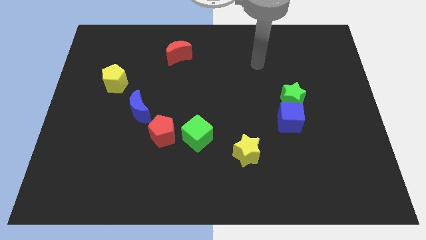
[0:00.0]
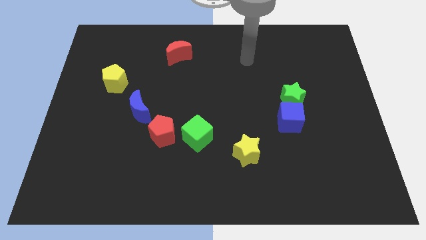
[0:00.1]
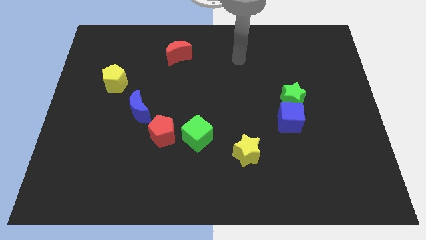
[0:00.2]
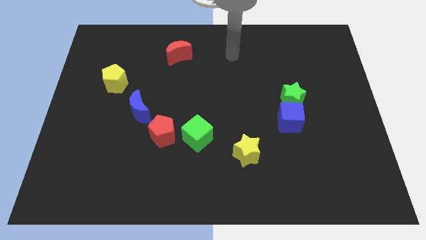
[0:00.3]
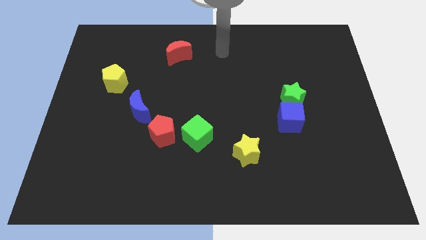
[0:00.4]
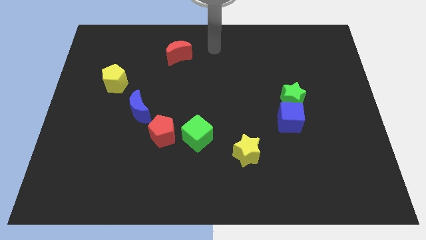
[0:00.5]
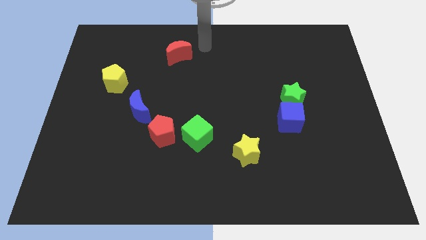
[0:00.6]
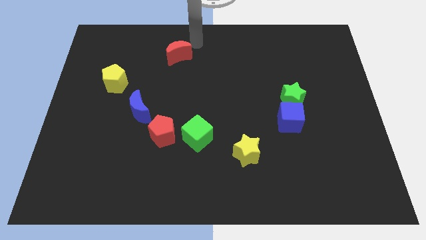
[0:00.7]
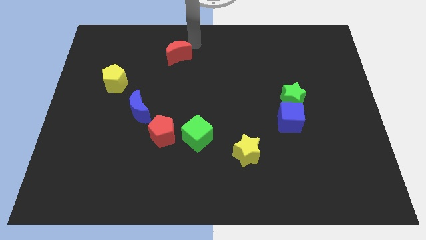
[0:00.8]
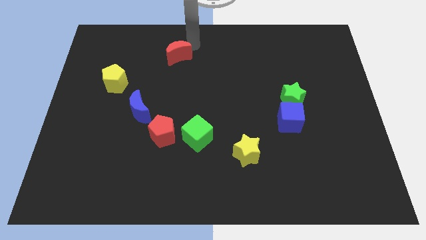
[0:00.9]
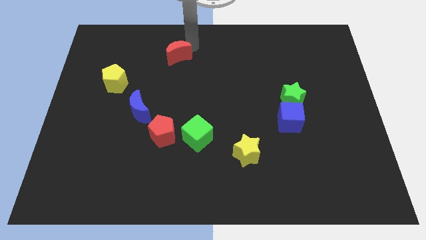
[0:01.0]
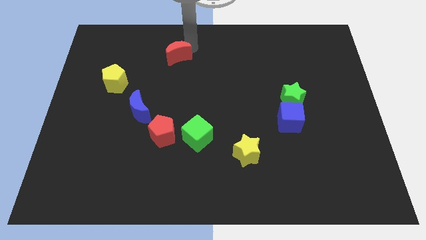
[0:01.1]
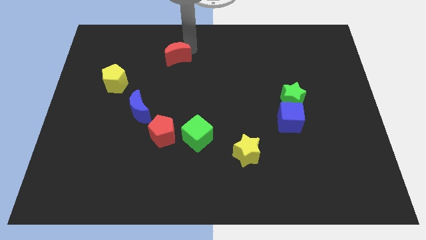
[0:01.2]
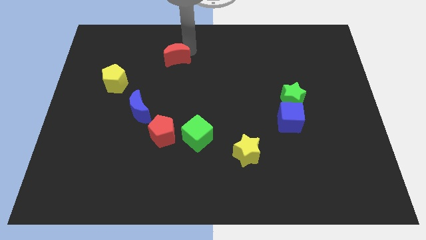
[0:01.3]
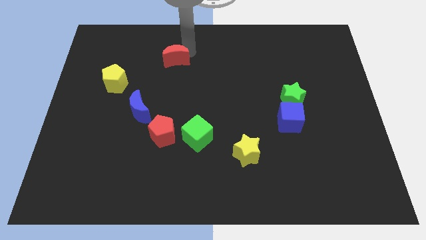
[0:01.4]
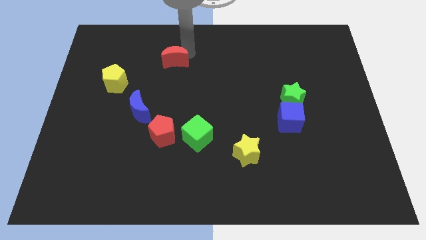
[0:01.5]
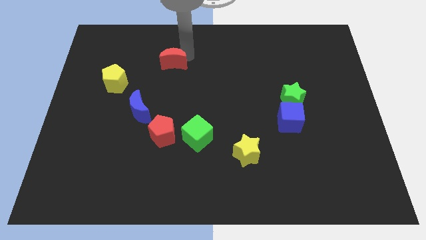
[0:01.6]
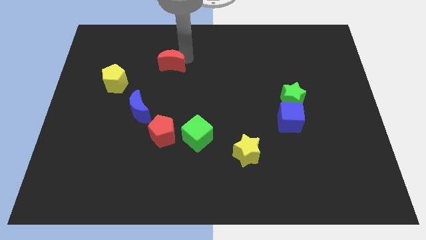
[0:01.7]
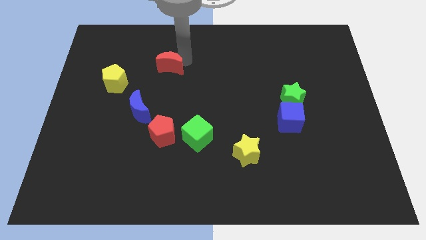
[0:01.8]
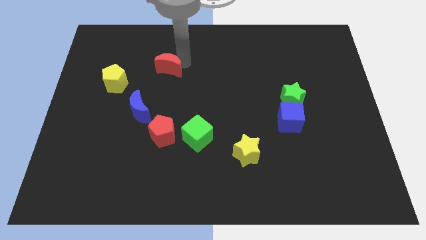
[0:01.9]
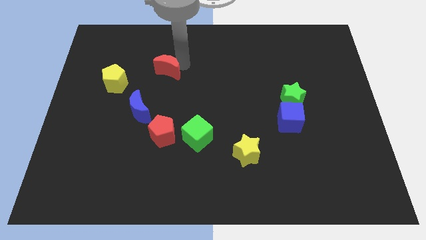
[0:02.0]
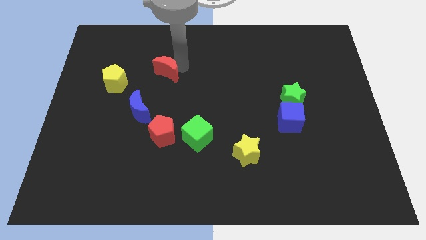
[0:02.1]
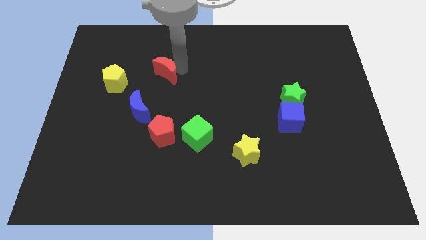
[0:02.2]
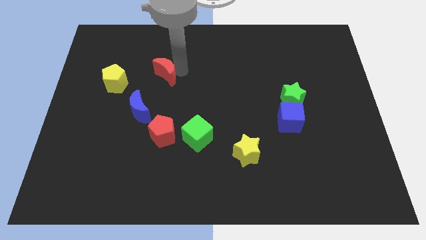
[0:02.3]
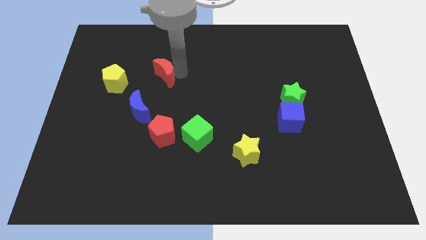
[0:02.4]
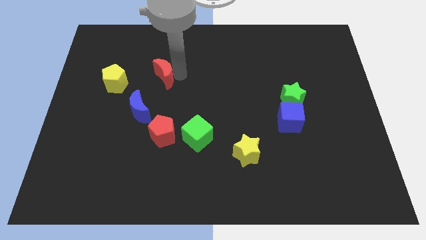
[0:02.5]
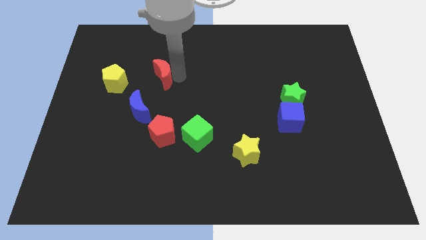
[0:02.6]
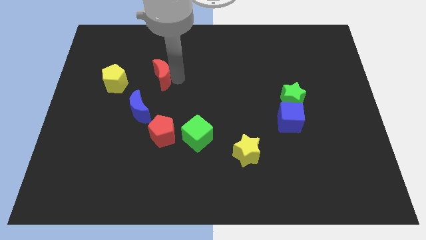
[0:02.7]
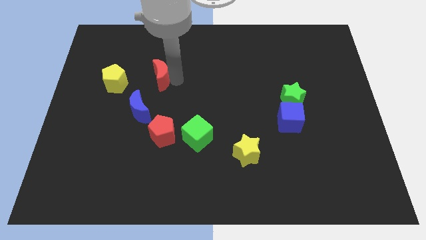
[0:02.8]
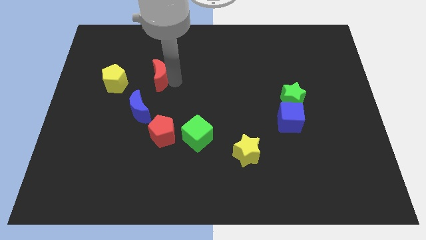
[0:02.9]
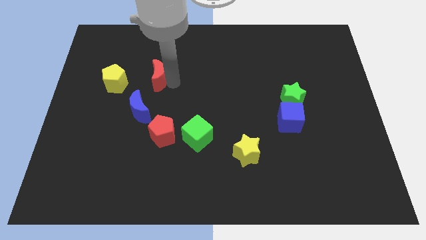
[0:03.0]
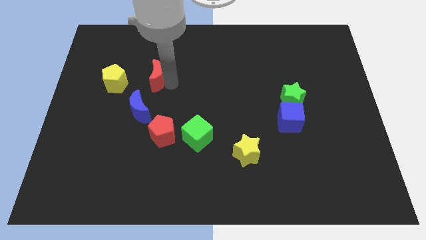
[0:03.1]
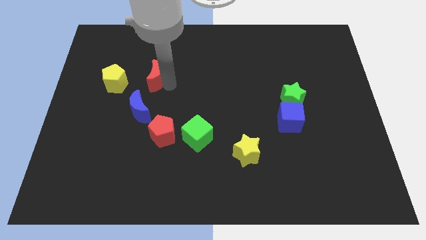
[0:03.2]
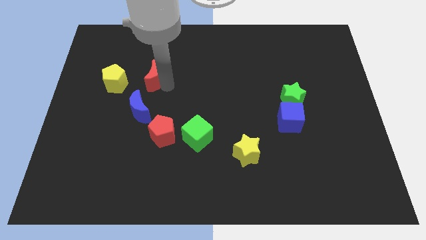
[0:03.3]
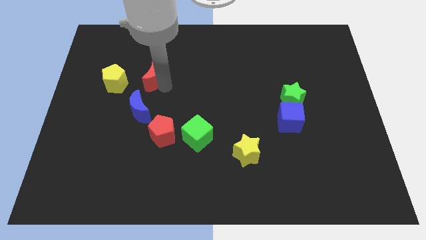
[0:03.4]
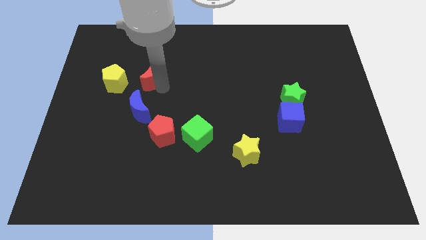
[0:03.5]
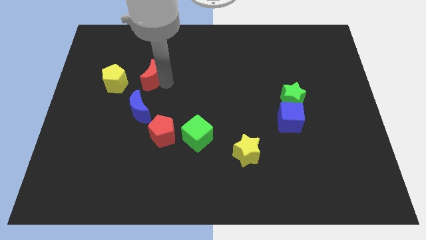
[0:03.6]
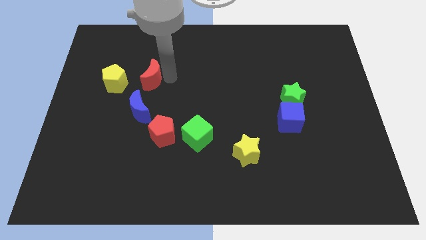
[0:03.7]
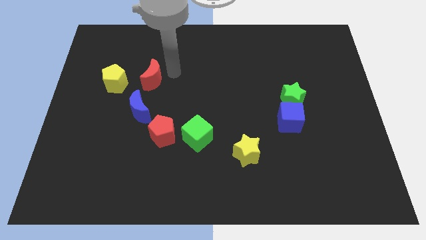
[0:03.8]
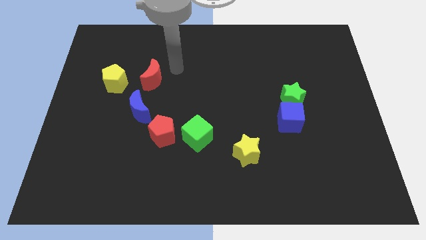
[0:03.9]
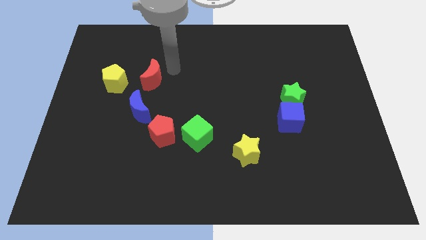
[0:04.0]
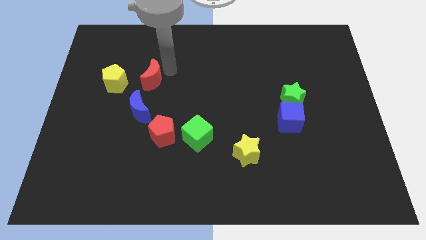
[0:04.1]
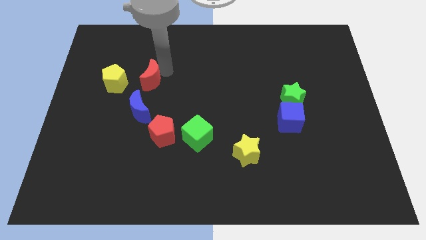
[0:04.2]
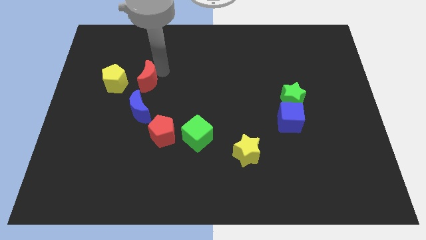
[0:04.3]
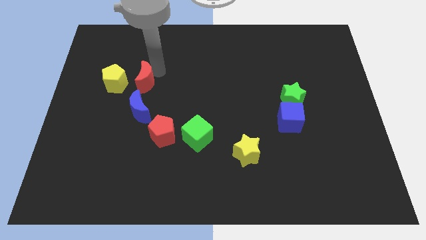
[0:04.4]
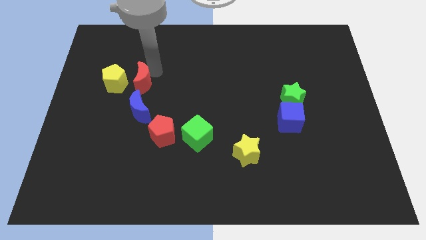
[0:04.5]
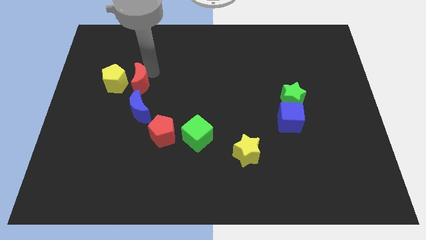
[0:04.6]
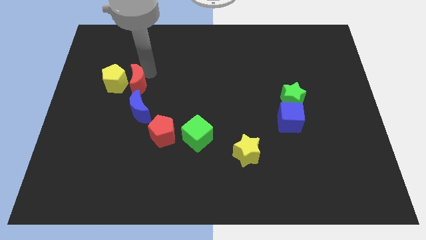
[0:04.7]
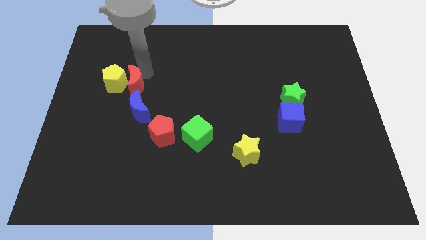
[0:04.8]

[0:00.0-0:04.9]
push the red moon diagonally up and to the left of the blue moon

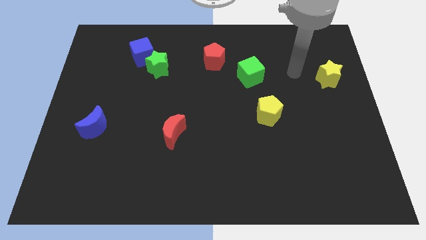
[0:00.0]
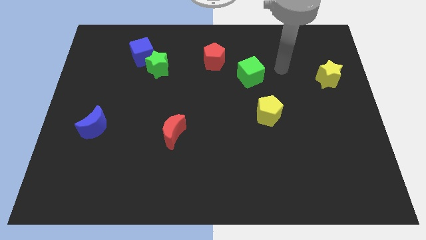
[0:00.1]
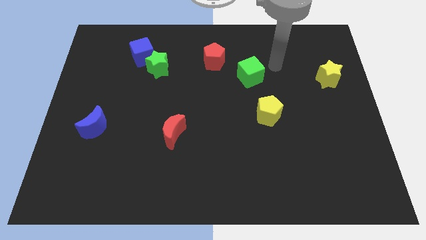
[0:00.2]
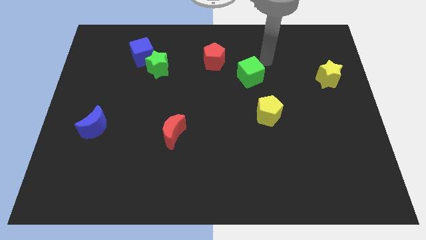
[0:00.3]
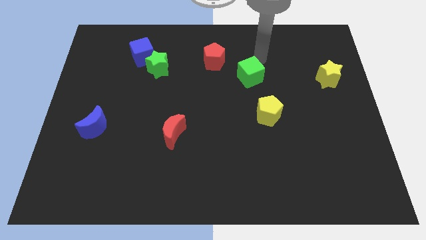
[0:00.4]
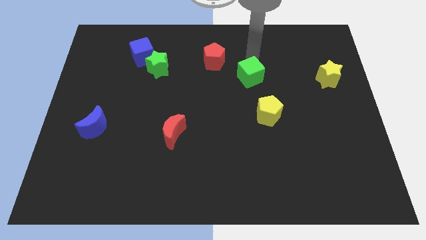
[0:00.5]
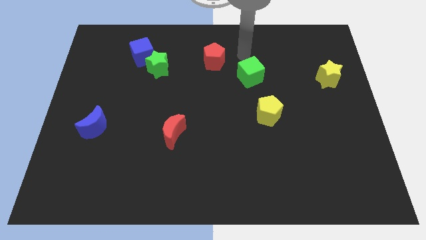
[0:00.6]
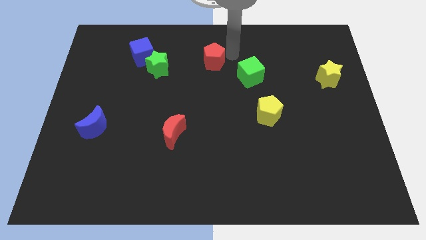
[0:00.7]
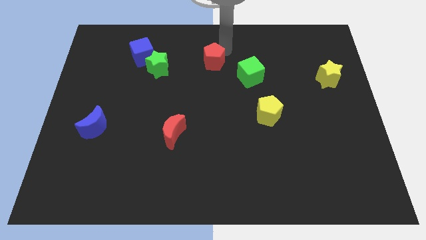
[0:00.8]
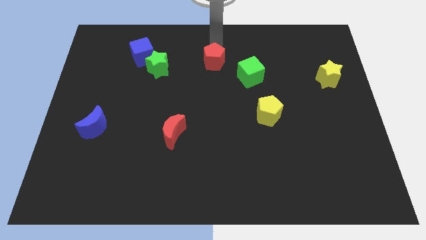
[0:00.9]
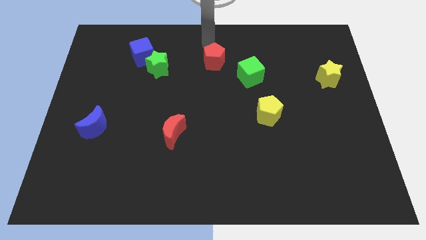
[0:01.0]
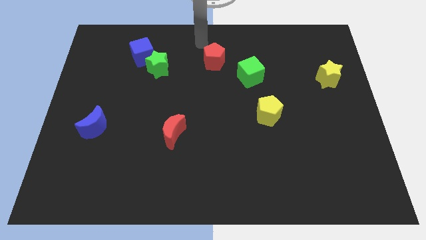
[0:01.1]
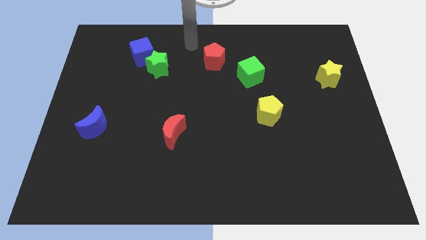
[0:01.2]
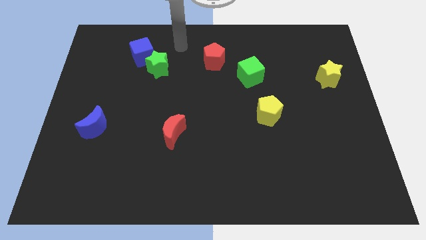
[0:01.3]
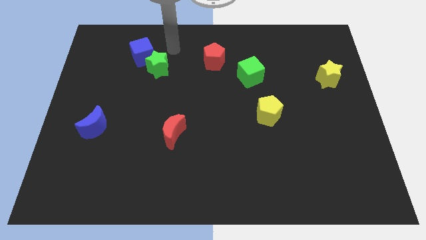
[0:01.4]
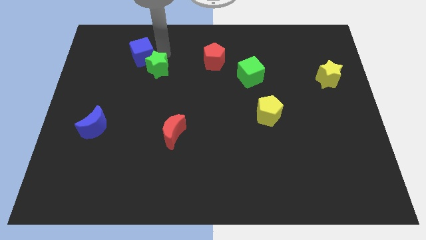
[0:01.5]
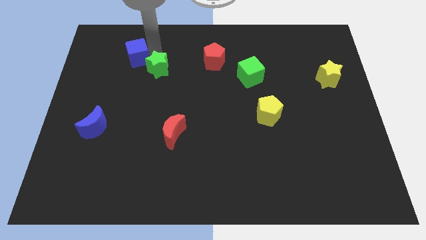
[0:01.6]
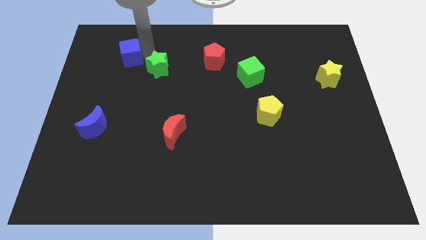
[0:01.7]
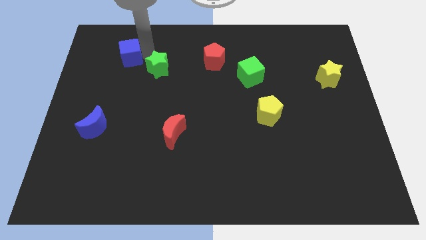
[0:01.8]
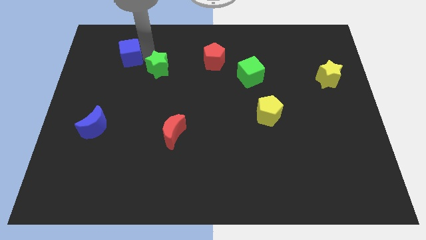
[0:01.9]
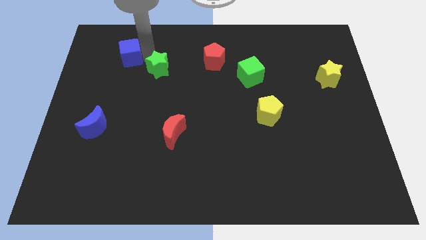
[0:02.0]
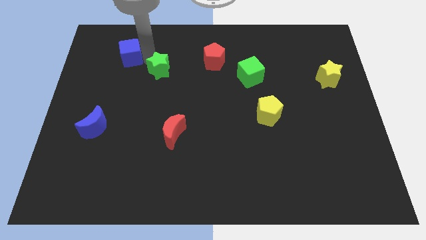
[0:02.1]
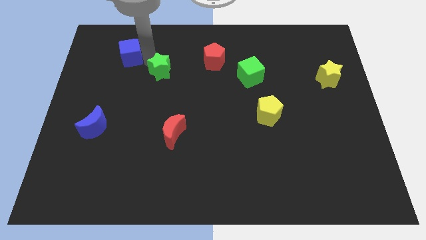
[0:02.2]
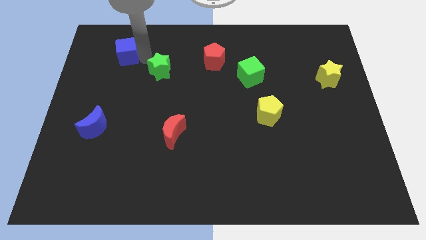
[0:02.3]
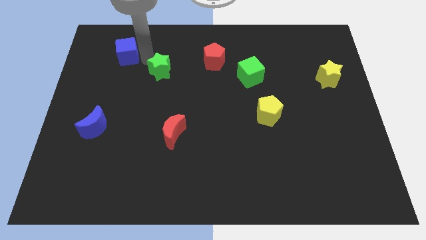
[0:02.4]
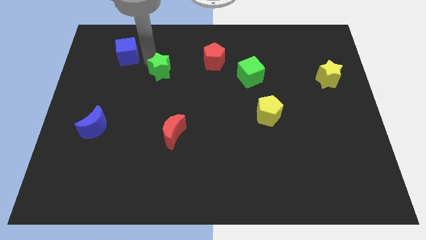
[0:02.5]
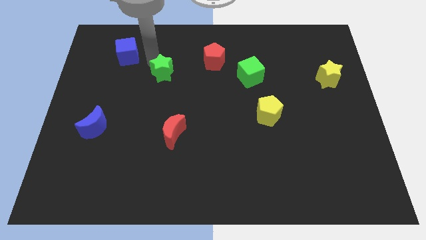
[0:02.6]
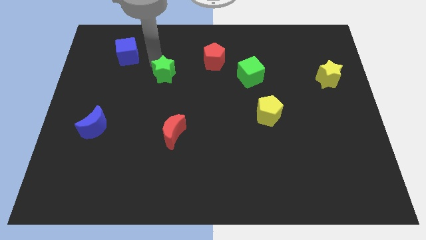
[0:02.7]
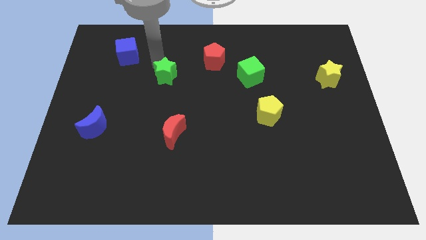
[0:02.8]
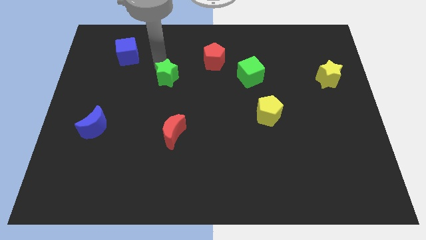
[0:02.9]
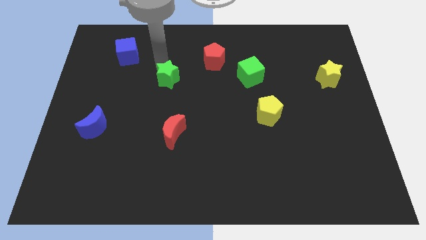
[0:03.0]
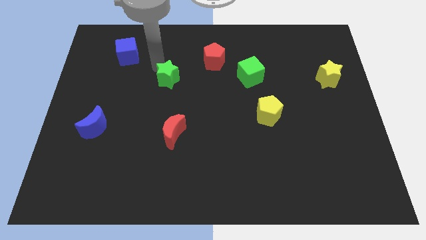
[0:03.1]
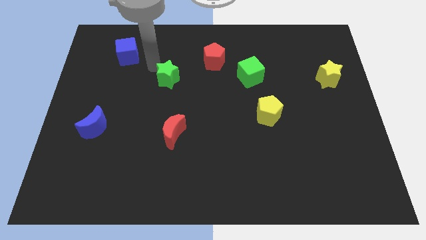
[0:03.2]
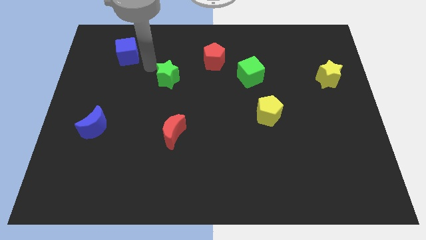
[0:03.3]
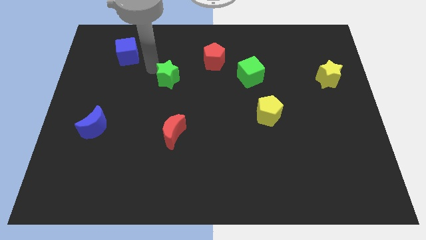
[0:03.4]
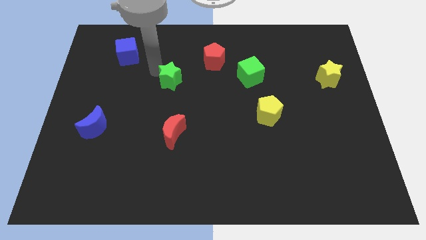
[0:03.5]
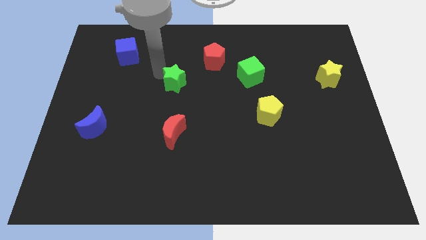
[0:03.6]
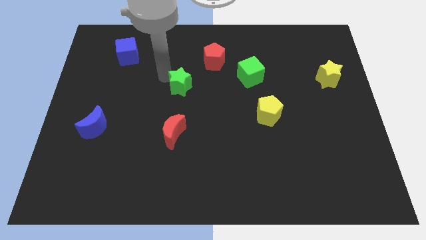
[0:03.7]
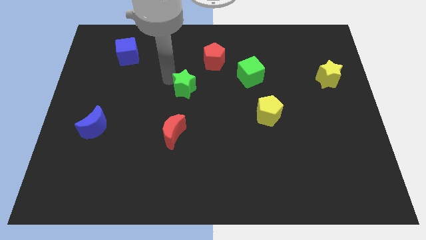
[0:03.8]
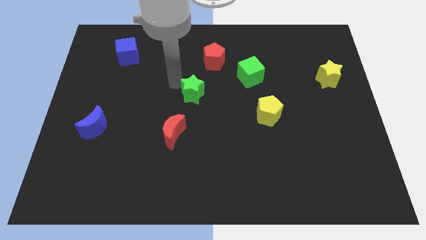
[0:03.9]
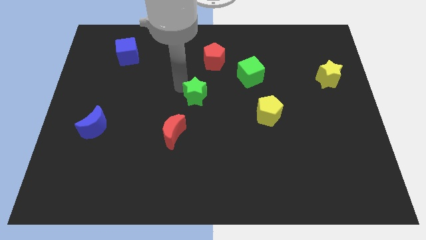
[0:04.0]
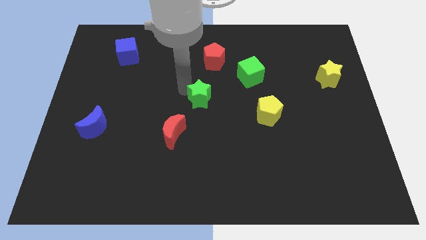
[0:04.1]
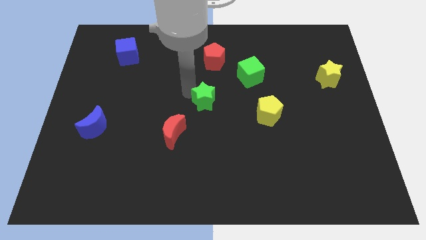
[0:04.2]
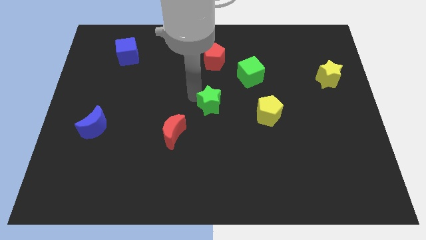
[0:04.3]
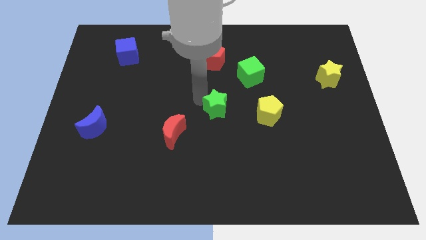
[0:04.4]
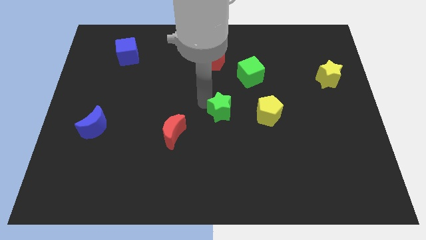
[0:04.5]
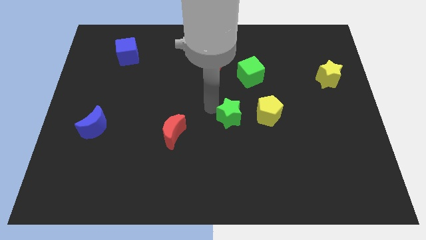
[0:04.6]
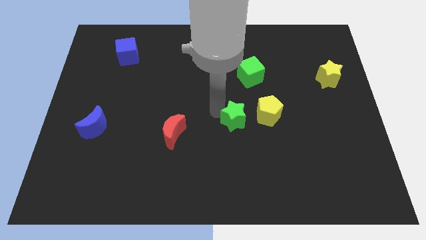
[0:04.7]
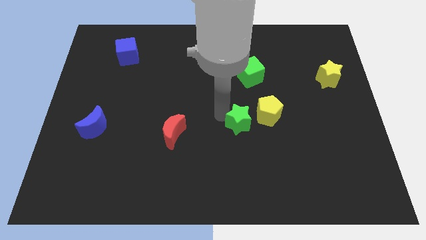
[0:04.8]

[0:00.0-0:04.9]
put the green star below the green cube
